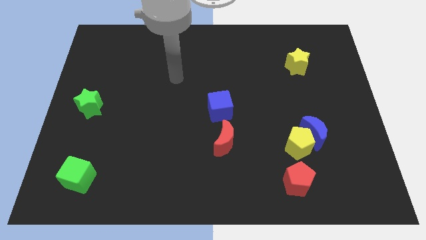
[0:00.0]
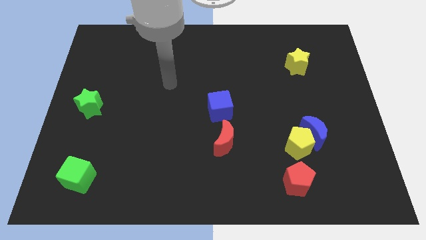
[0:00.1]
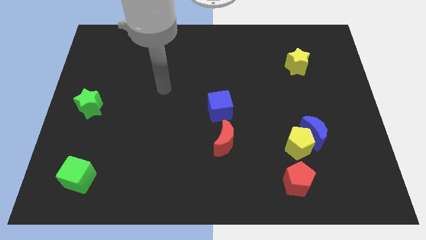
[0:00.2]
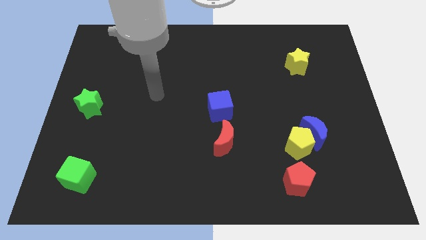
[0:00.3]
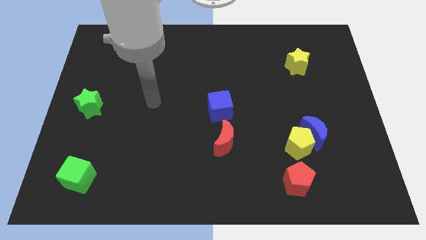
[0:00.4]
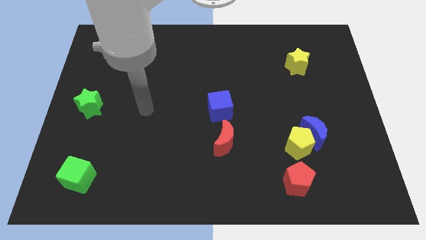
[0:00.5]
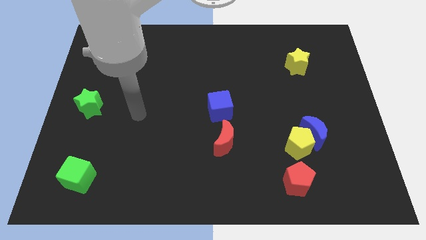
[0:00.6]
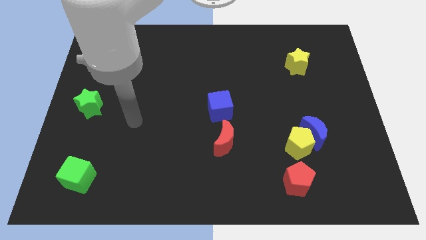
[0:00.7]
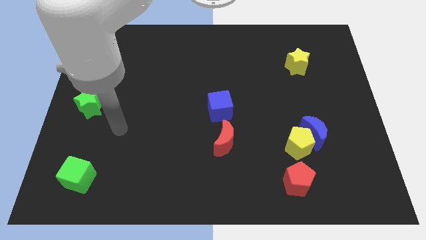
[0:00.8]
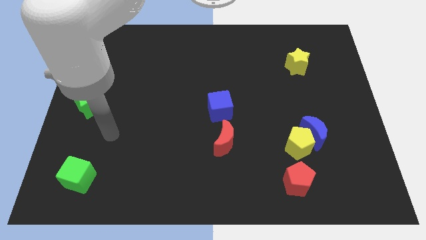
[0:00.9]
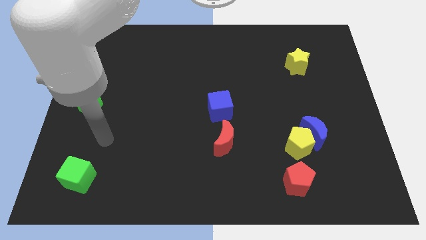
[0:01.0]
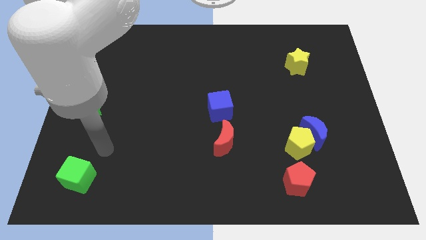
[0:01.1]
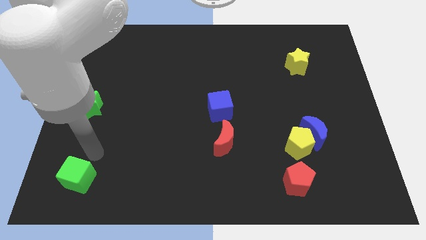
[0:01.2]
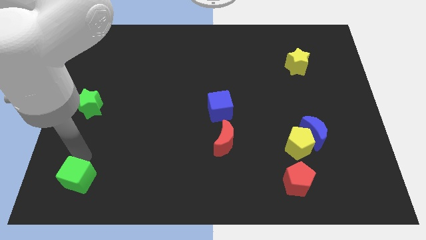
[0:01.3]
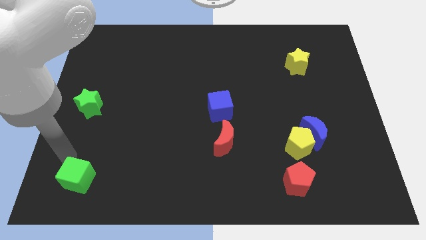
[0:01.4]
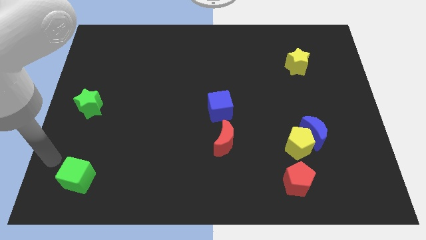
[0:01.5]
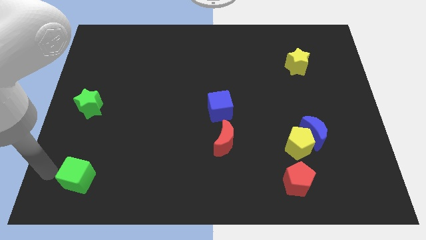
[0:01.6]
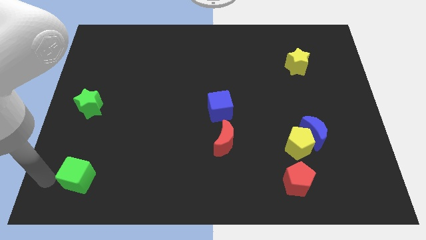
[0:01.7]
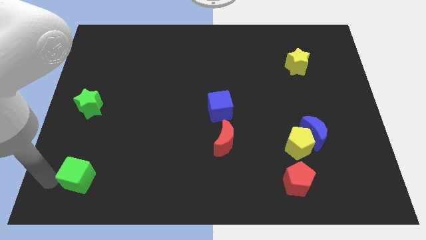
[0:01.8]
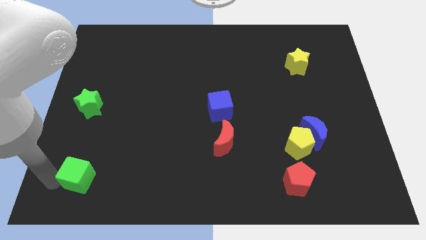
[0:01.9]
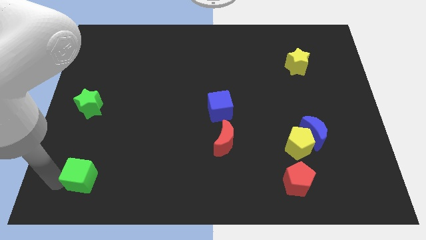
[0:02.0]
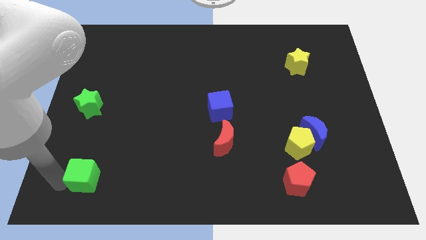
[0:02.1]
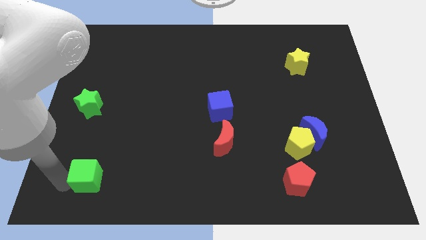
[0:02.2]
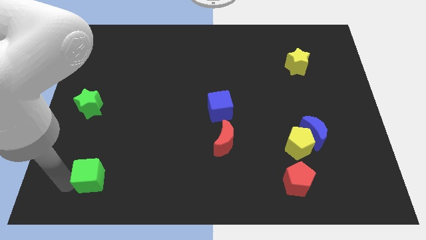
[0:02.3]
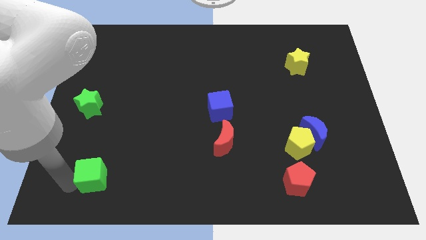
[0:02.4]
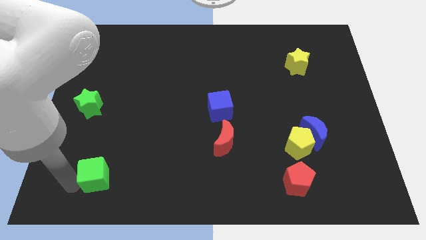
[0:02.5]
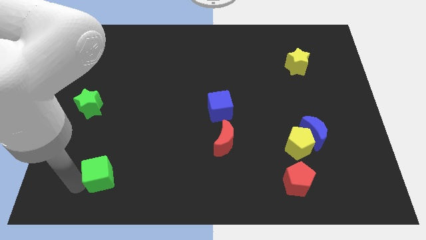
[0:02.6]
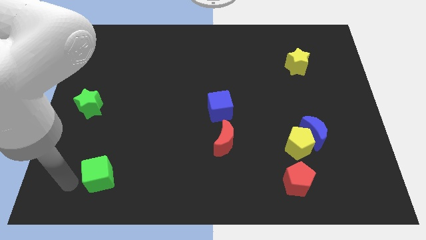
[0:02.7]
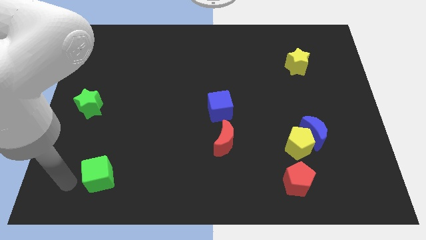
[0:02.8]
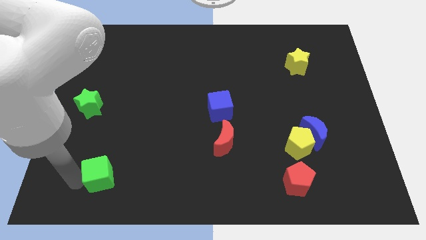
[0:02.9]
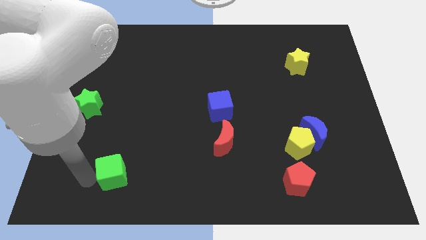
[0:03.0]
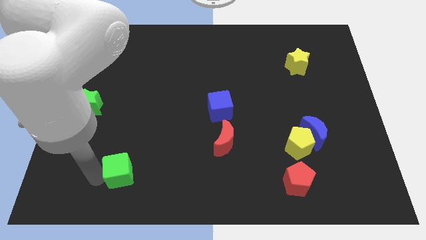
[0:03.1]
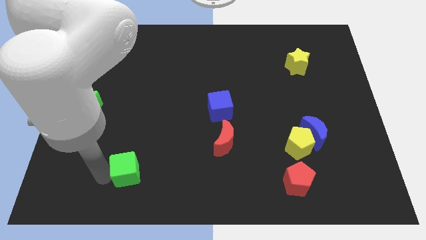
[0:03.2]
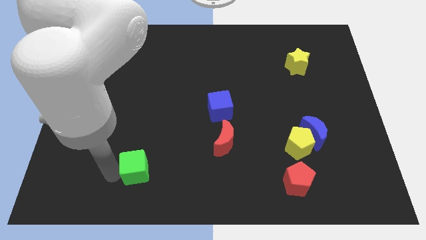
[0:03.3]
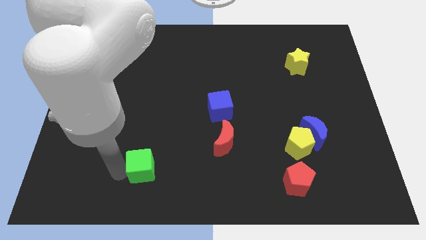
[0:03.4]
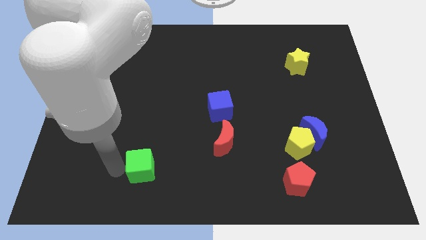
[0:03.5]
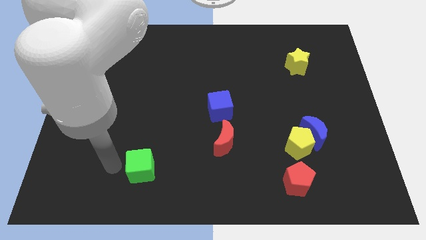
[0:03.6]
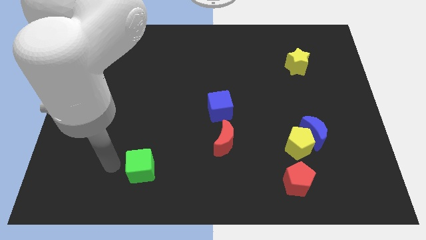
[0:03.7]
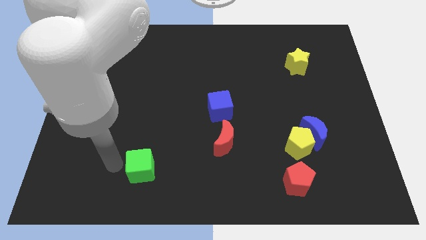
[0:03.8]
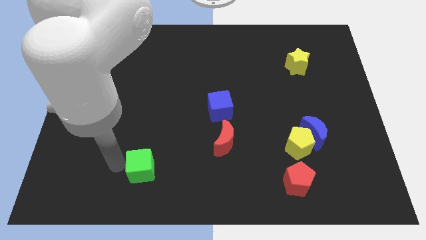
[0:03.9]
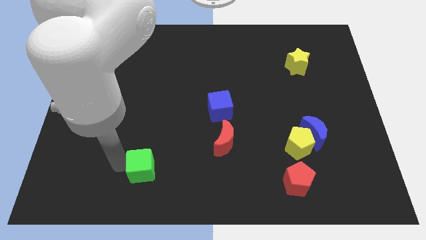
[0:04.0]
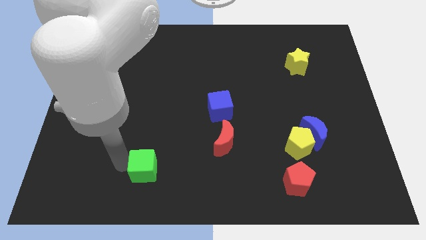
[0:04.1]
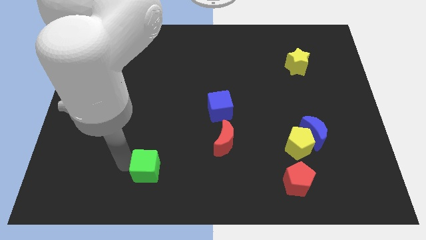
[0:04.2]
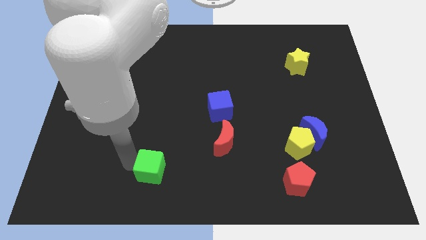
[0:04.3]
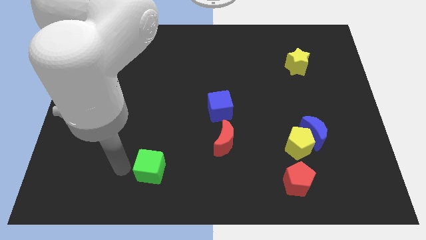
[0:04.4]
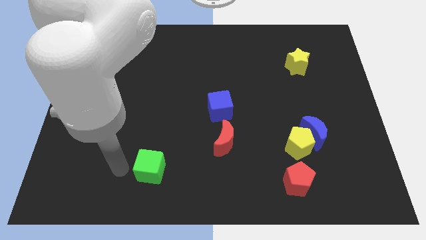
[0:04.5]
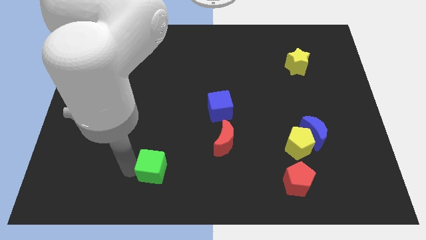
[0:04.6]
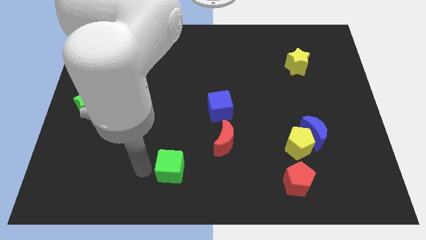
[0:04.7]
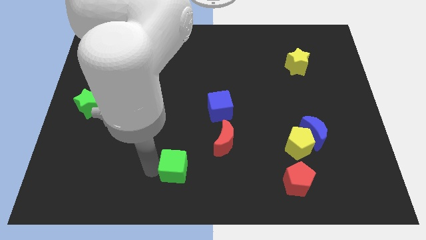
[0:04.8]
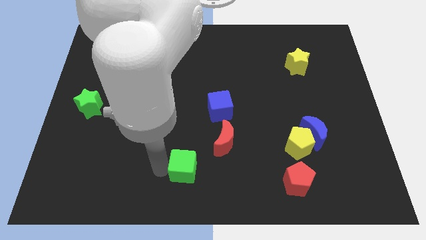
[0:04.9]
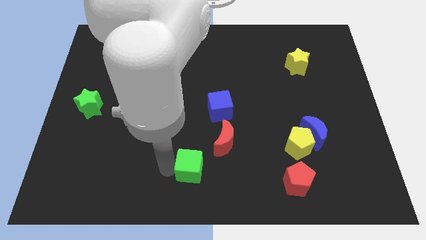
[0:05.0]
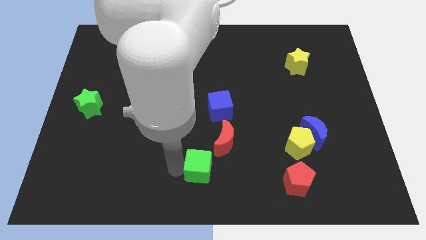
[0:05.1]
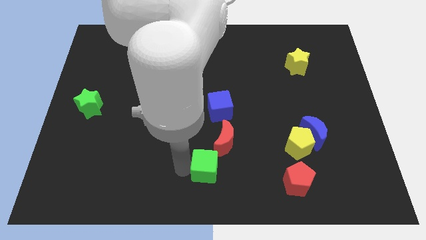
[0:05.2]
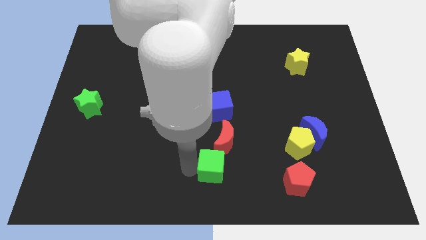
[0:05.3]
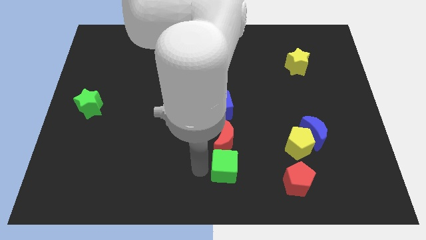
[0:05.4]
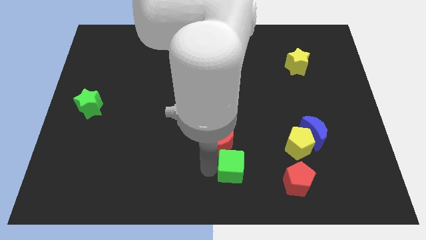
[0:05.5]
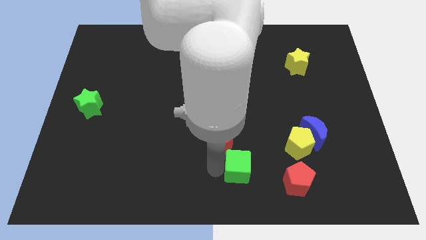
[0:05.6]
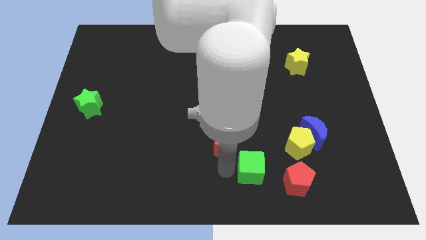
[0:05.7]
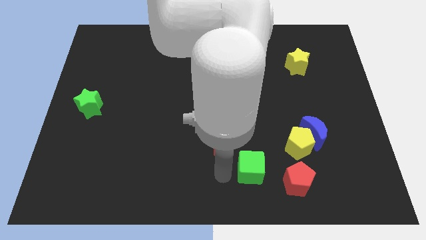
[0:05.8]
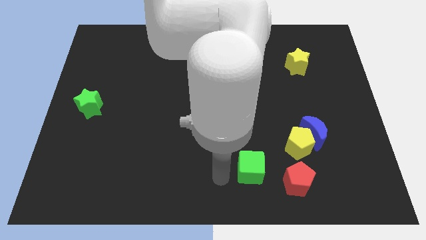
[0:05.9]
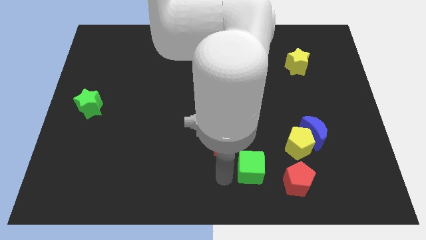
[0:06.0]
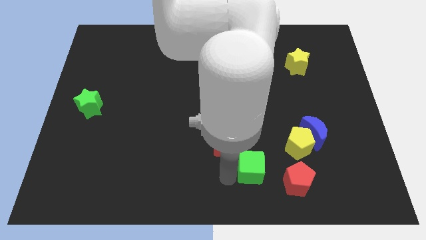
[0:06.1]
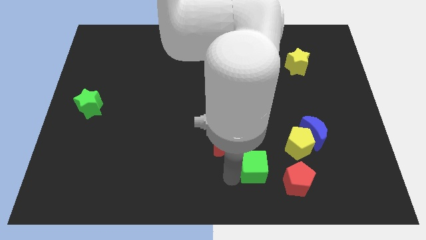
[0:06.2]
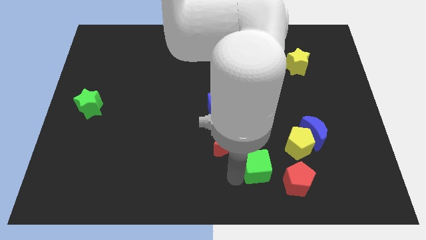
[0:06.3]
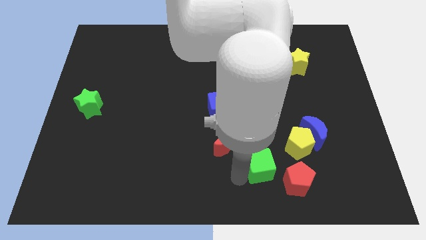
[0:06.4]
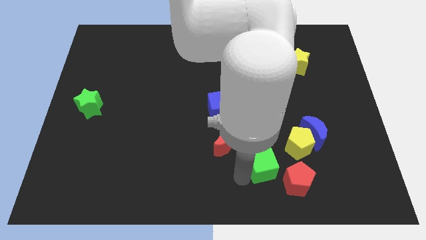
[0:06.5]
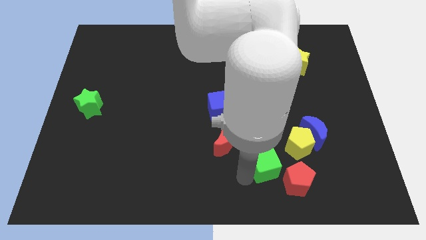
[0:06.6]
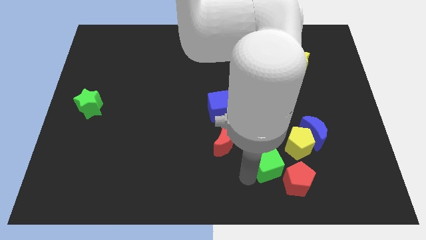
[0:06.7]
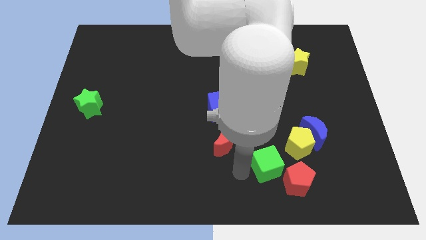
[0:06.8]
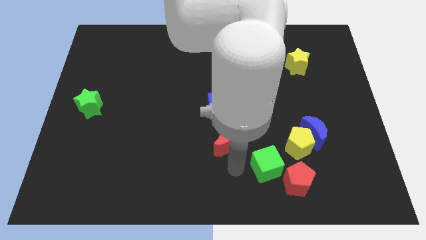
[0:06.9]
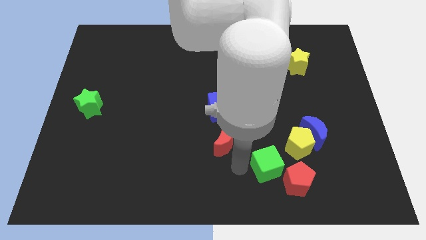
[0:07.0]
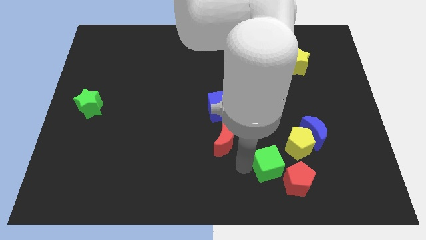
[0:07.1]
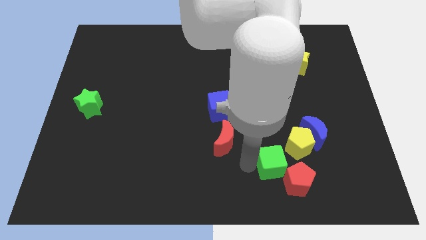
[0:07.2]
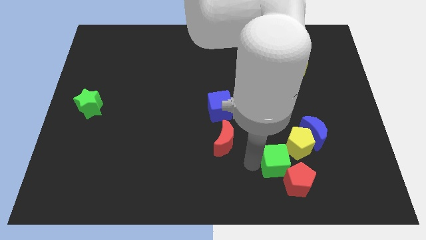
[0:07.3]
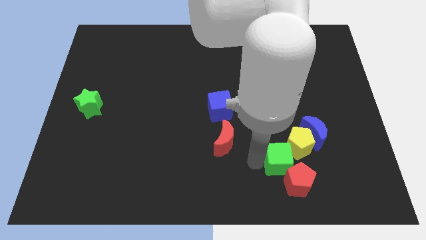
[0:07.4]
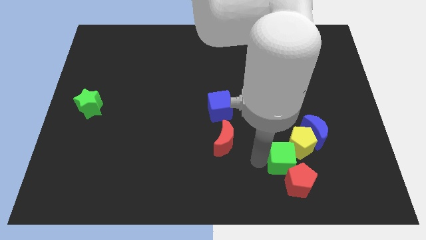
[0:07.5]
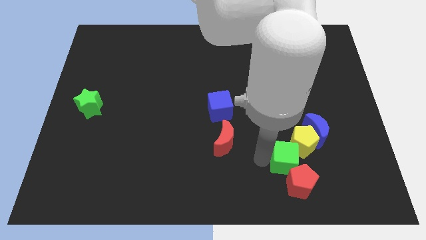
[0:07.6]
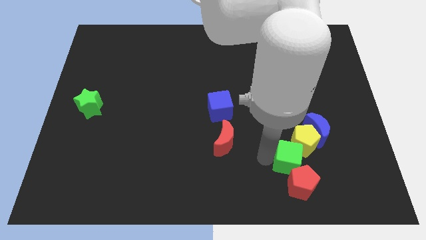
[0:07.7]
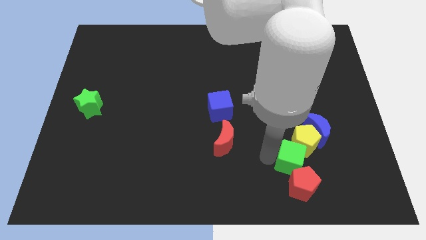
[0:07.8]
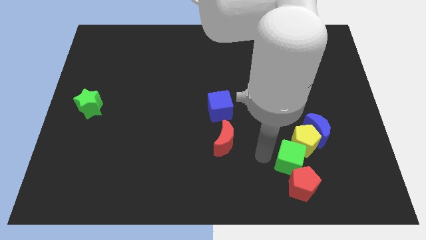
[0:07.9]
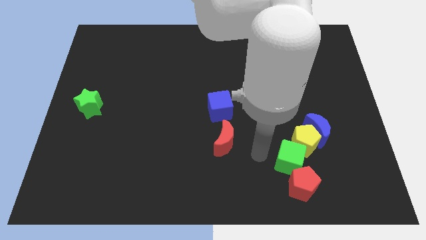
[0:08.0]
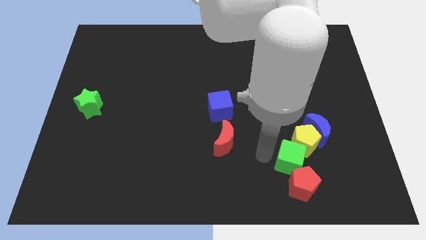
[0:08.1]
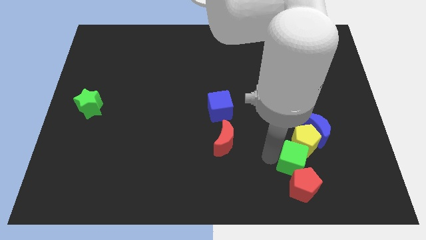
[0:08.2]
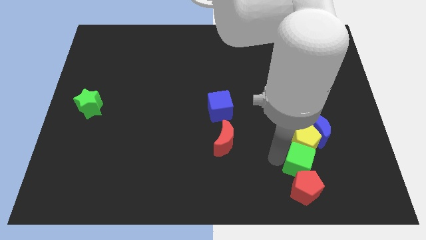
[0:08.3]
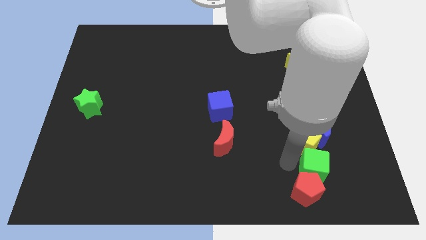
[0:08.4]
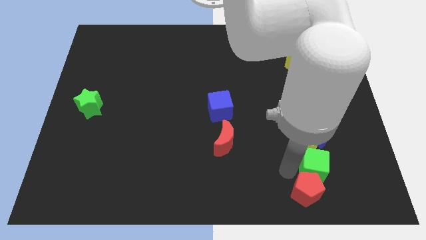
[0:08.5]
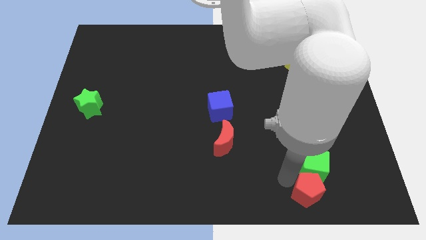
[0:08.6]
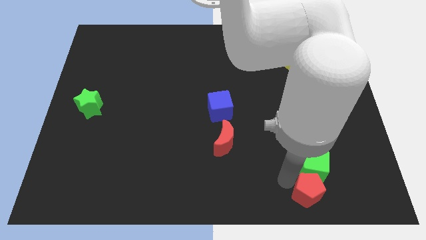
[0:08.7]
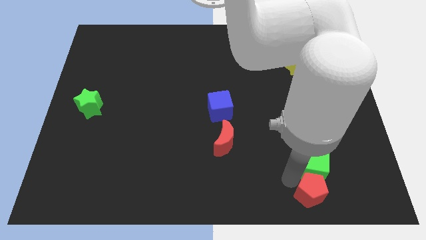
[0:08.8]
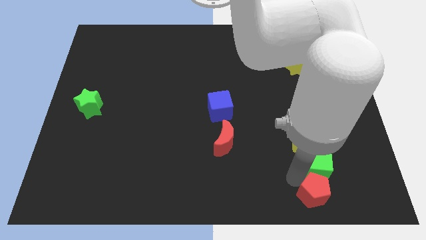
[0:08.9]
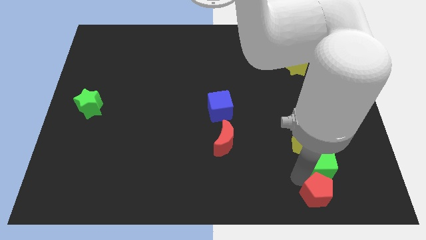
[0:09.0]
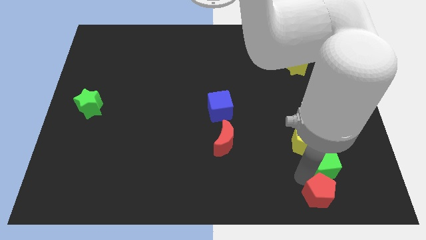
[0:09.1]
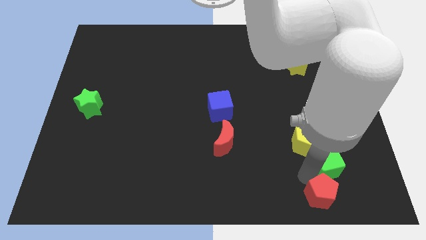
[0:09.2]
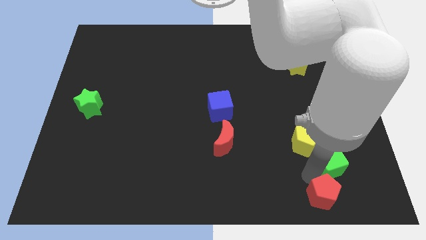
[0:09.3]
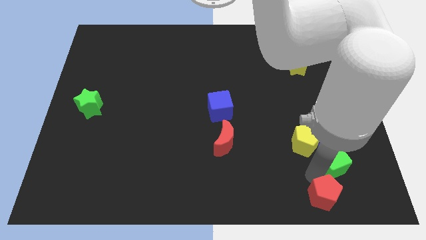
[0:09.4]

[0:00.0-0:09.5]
put the green cube to the bottom right side of the blue moon
